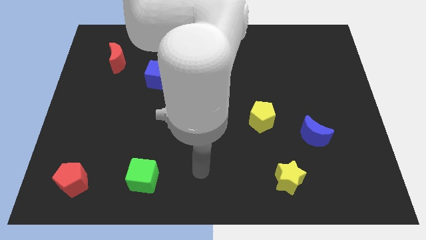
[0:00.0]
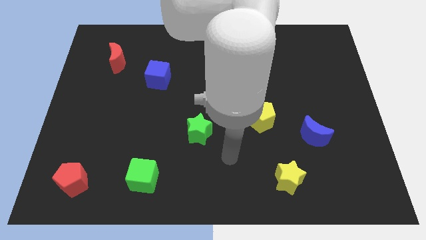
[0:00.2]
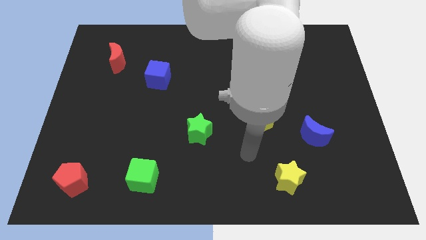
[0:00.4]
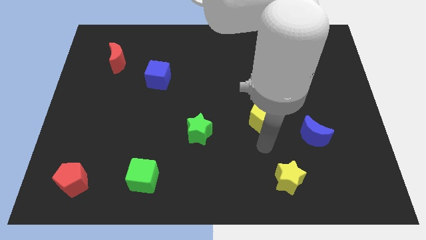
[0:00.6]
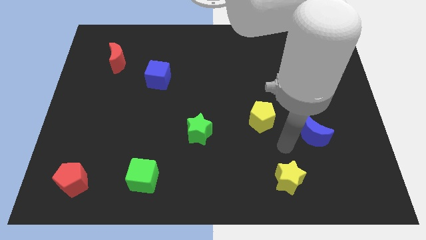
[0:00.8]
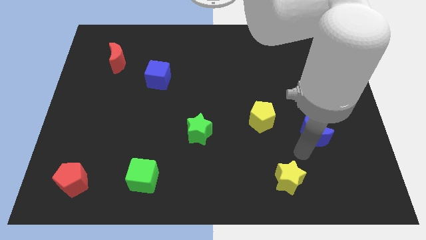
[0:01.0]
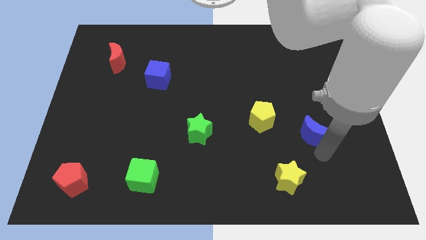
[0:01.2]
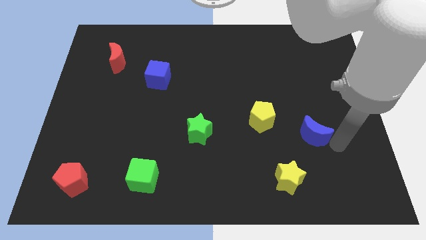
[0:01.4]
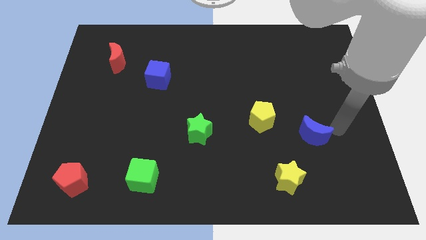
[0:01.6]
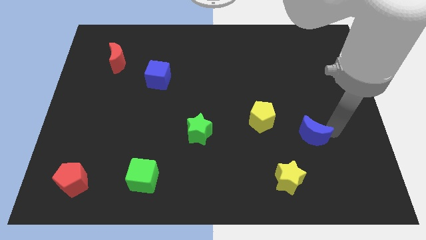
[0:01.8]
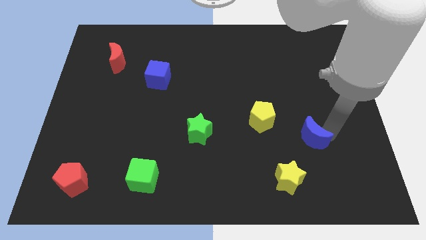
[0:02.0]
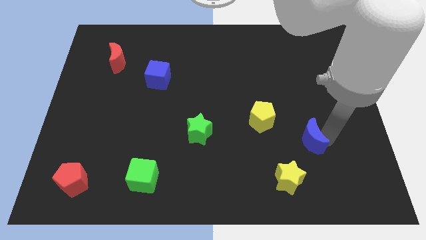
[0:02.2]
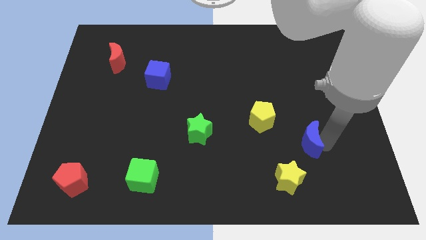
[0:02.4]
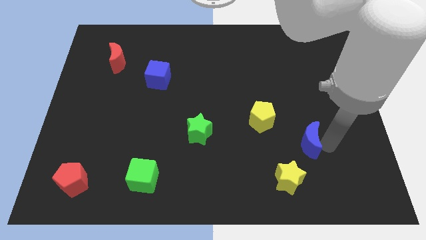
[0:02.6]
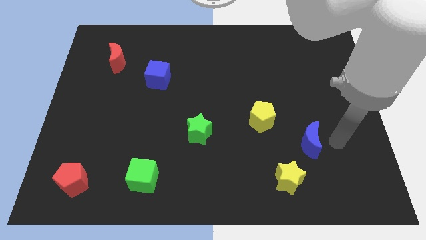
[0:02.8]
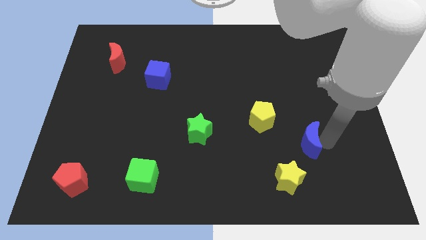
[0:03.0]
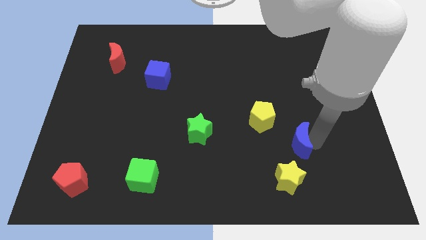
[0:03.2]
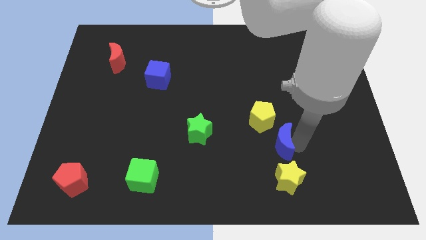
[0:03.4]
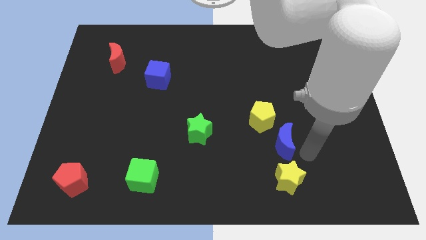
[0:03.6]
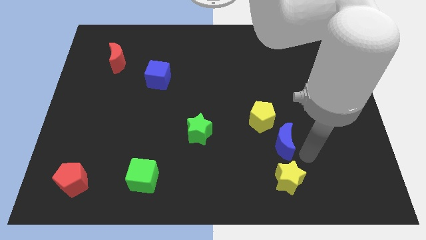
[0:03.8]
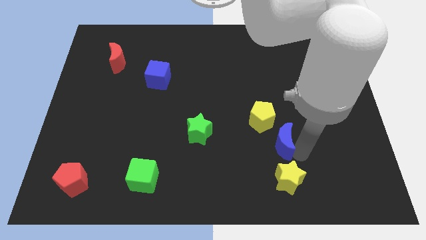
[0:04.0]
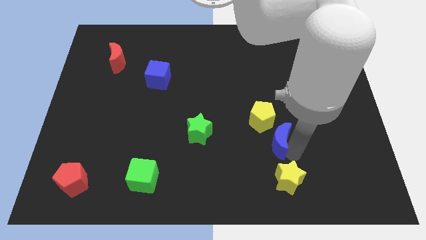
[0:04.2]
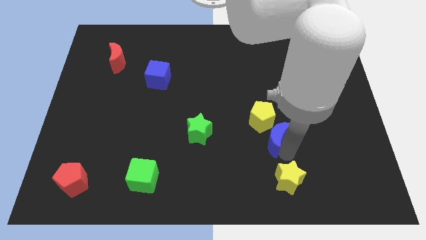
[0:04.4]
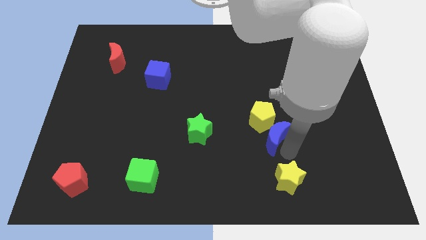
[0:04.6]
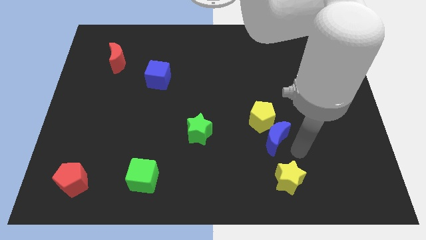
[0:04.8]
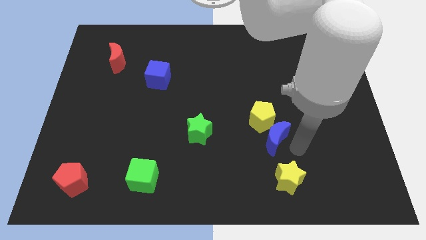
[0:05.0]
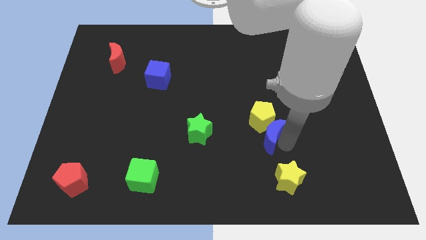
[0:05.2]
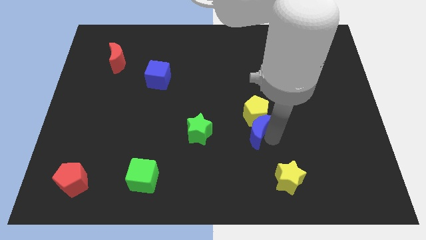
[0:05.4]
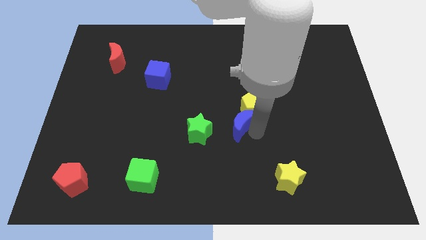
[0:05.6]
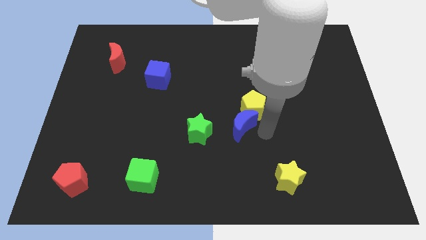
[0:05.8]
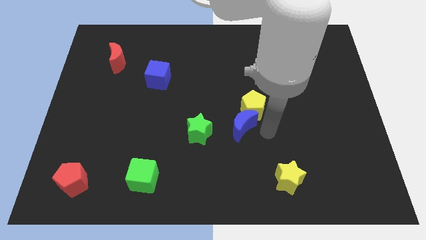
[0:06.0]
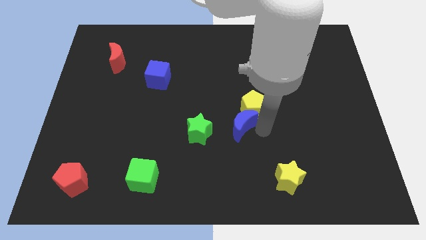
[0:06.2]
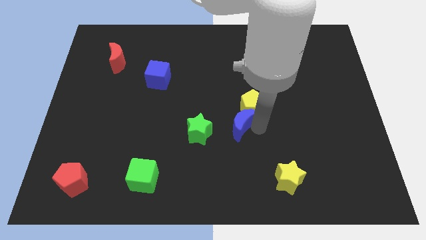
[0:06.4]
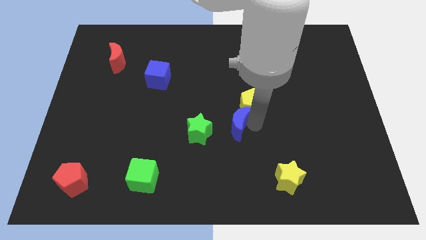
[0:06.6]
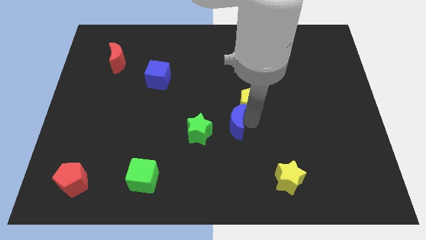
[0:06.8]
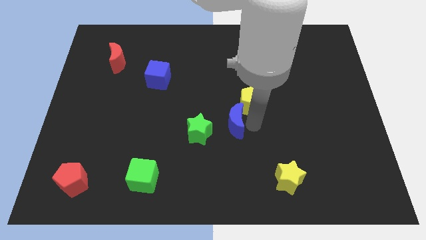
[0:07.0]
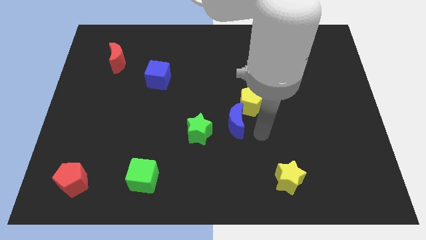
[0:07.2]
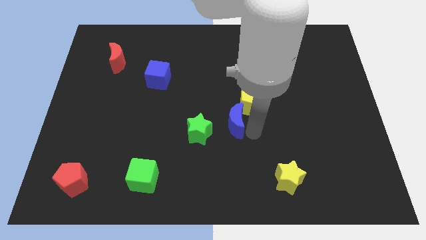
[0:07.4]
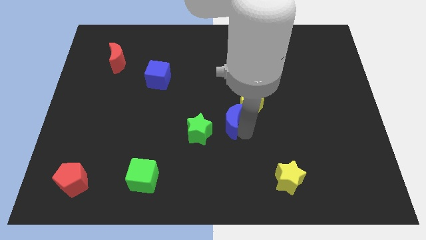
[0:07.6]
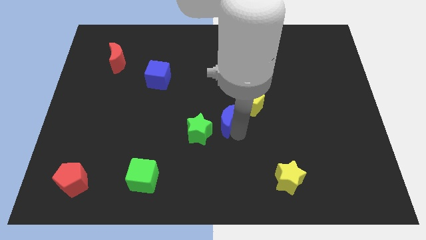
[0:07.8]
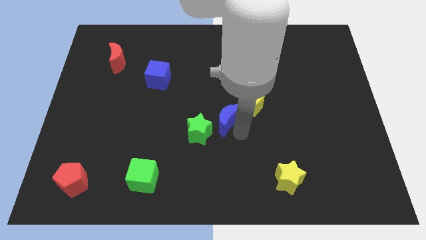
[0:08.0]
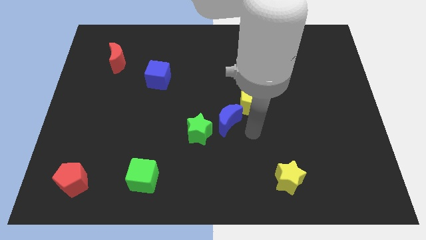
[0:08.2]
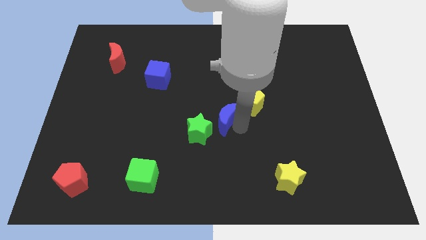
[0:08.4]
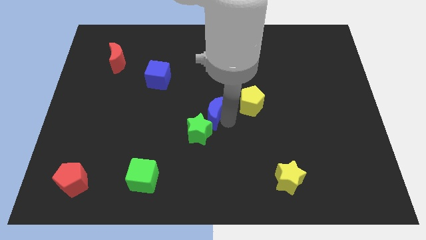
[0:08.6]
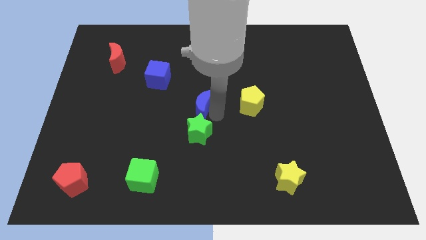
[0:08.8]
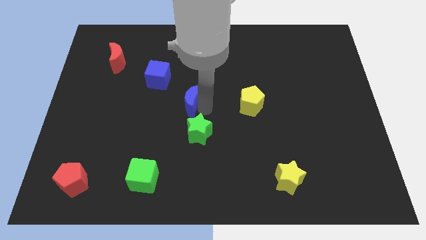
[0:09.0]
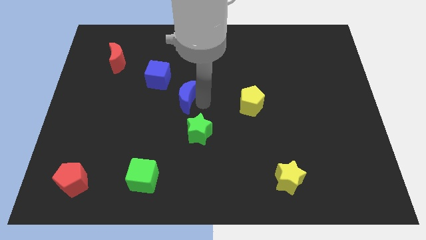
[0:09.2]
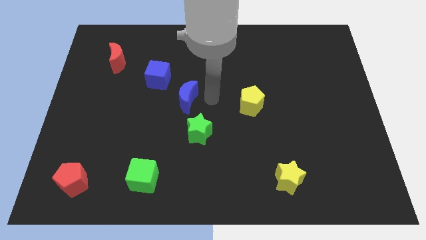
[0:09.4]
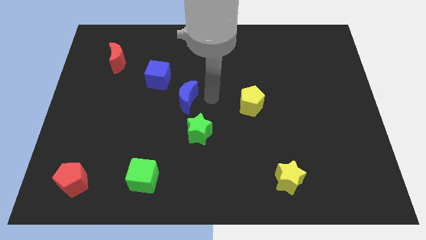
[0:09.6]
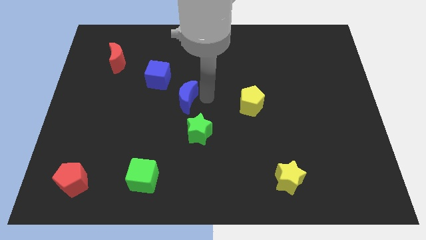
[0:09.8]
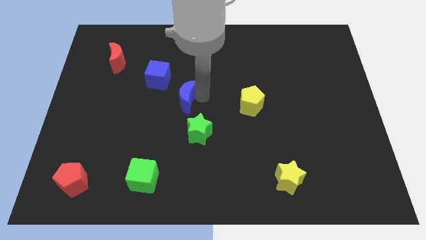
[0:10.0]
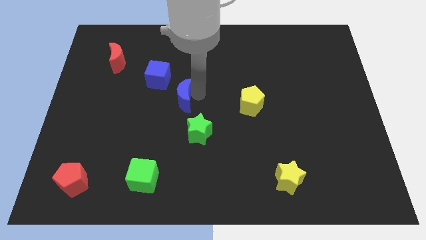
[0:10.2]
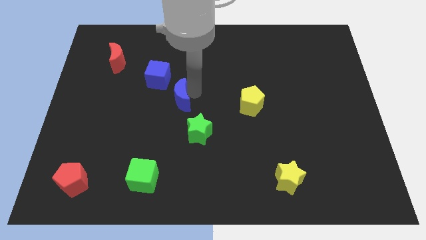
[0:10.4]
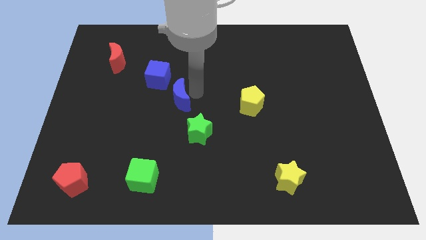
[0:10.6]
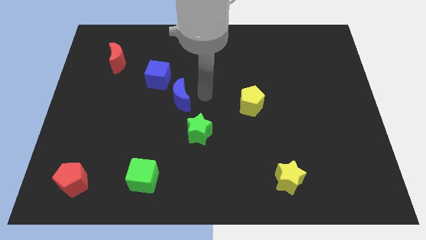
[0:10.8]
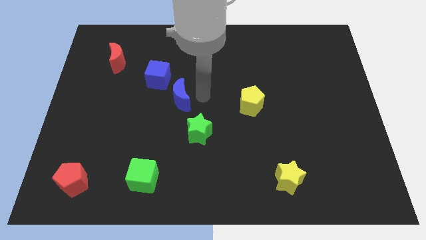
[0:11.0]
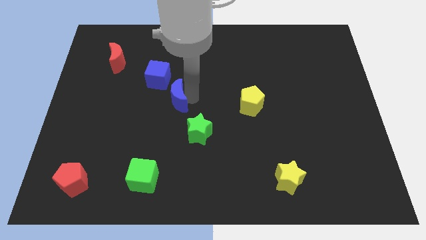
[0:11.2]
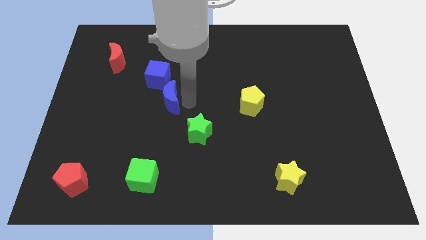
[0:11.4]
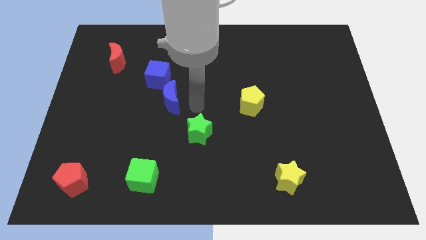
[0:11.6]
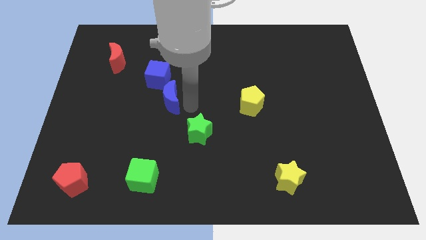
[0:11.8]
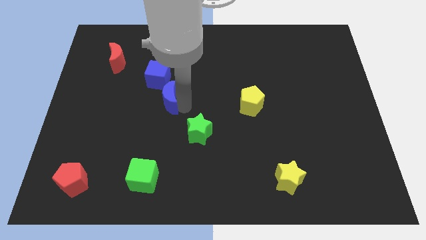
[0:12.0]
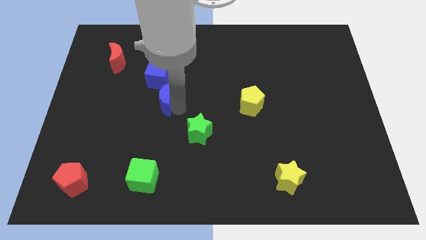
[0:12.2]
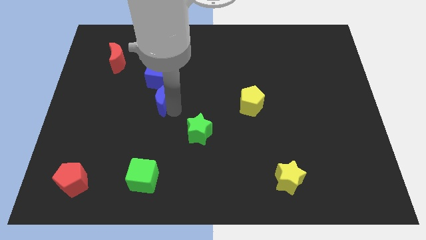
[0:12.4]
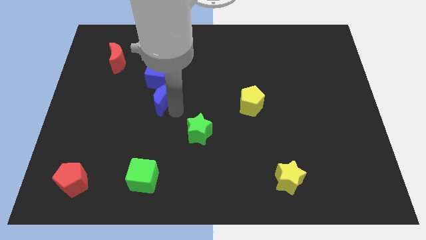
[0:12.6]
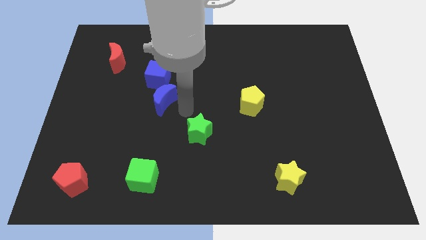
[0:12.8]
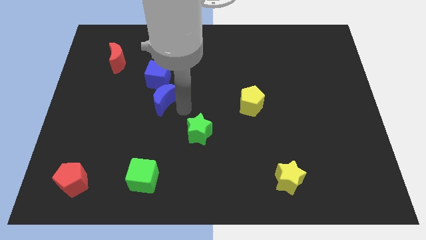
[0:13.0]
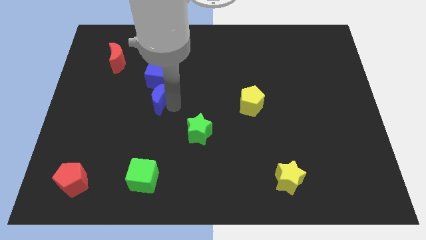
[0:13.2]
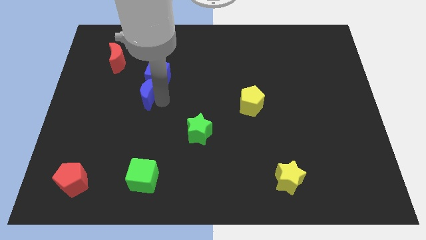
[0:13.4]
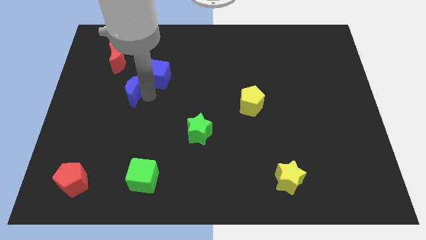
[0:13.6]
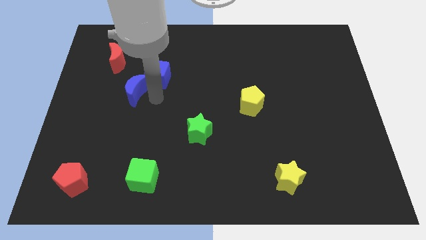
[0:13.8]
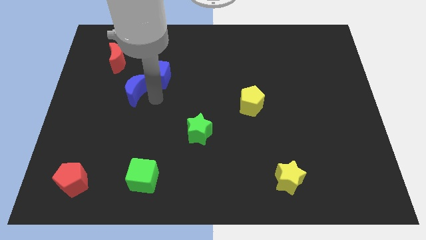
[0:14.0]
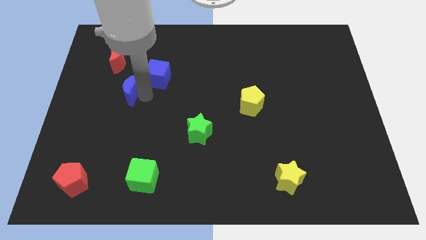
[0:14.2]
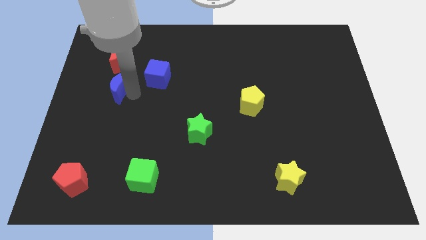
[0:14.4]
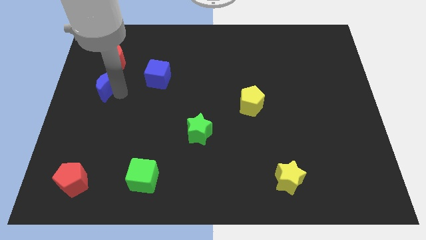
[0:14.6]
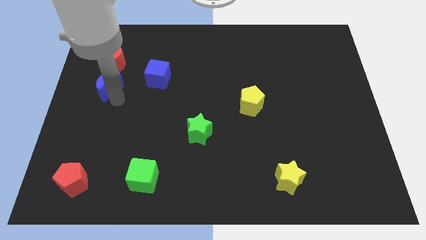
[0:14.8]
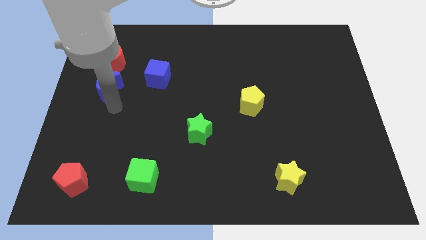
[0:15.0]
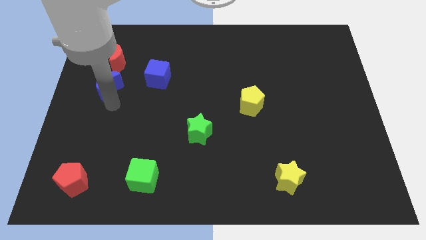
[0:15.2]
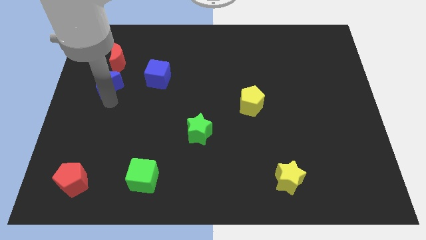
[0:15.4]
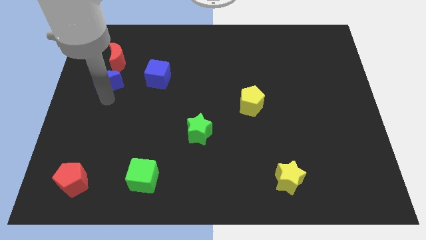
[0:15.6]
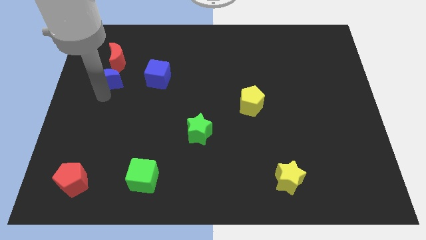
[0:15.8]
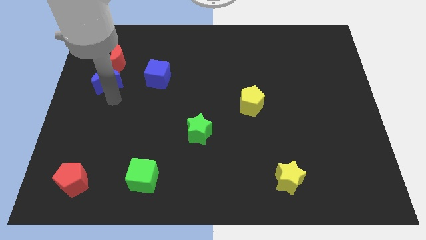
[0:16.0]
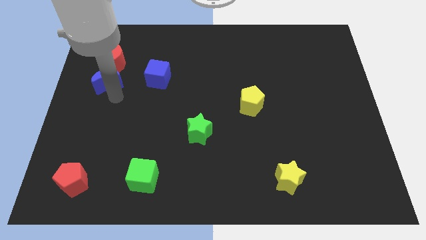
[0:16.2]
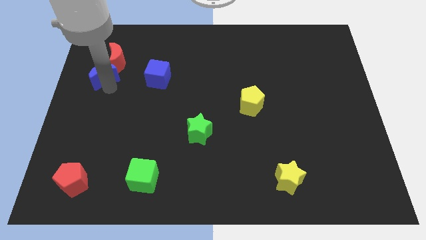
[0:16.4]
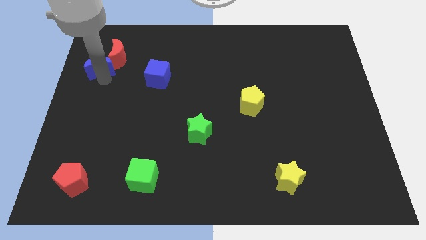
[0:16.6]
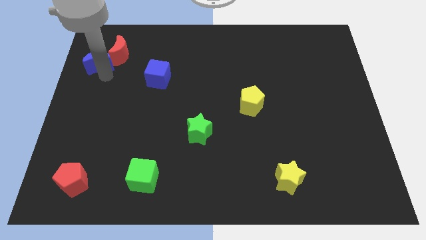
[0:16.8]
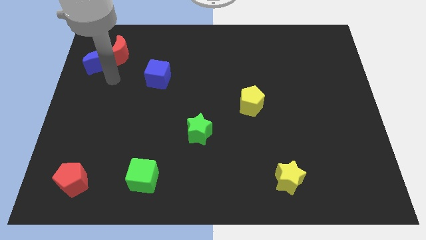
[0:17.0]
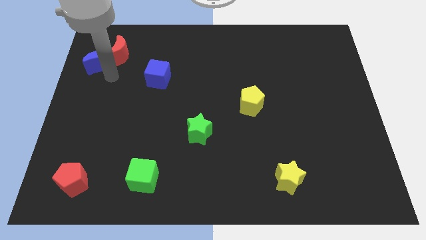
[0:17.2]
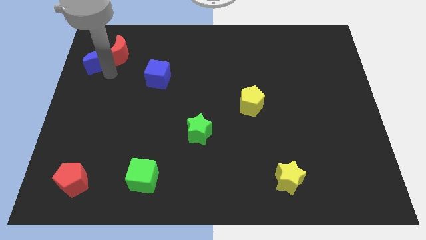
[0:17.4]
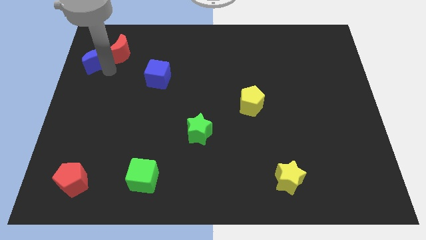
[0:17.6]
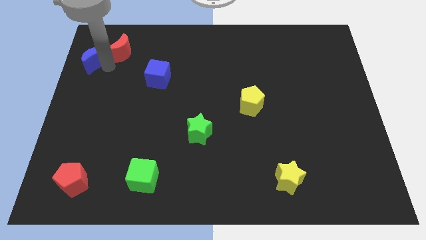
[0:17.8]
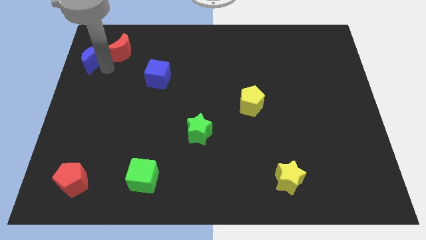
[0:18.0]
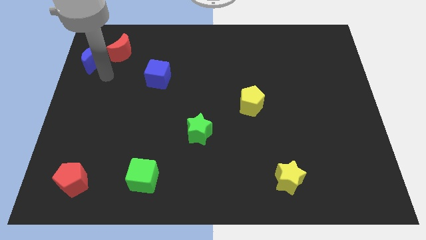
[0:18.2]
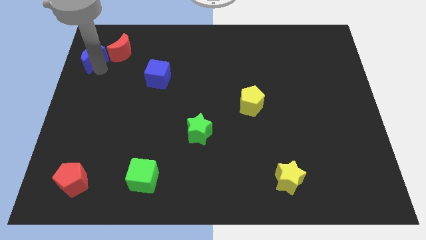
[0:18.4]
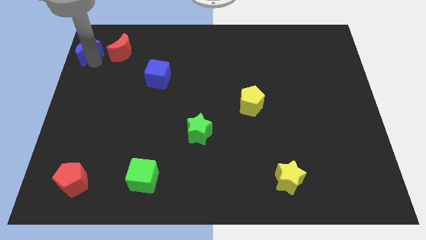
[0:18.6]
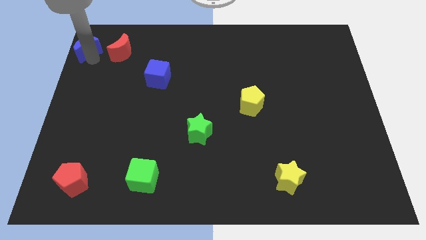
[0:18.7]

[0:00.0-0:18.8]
move the blue moon to the upper left corner
